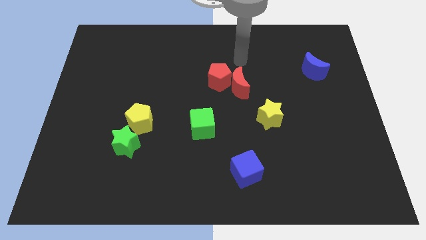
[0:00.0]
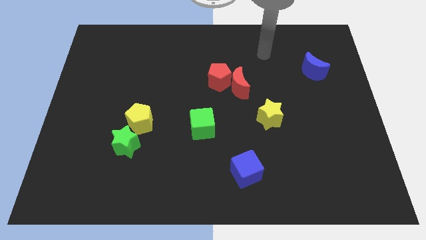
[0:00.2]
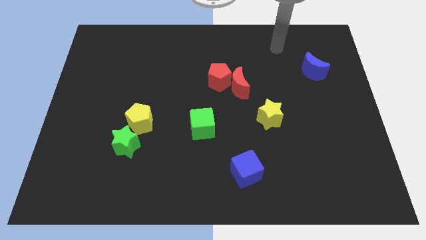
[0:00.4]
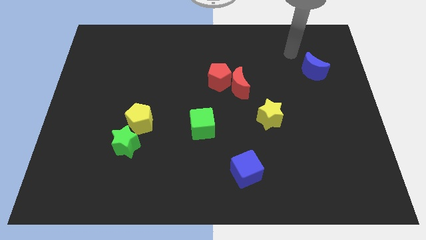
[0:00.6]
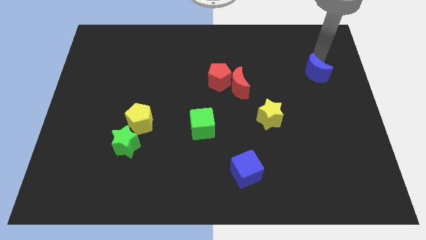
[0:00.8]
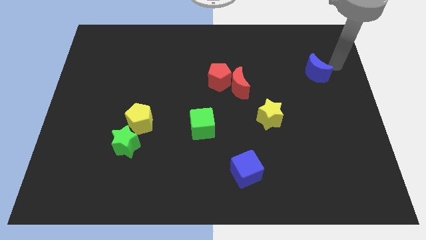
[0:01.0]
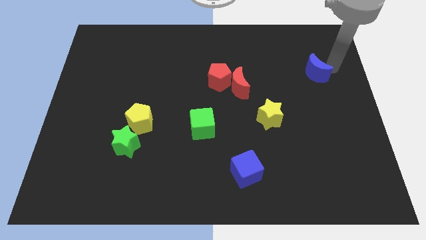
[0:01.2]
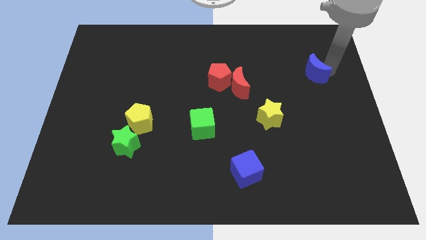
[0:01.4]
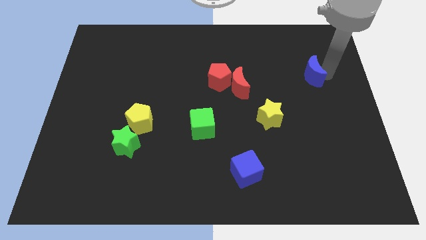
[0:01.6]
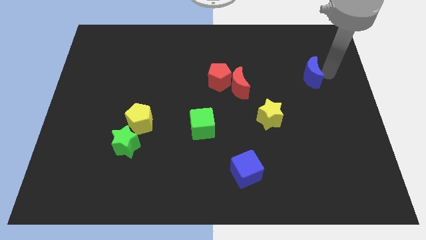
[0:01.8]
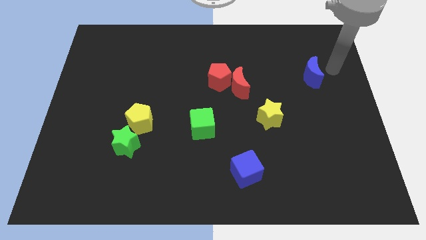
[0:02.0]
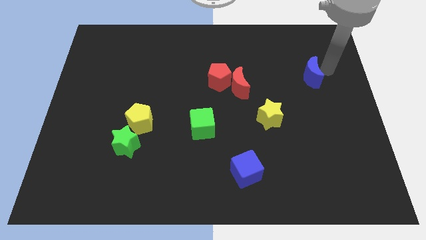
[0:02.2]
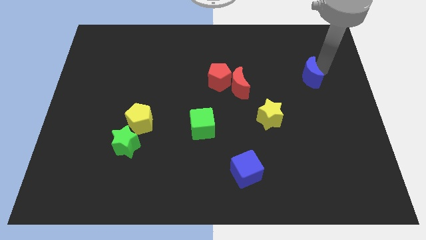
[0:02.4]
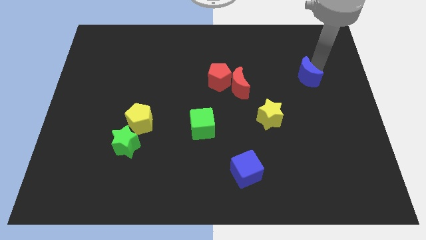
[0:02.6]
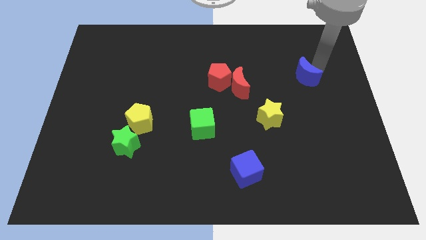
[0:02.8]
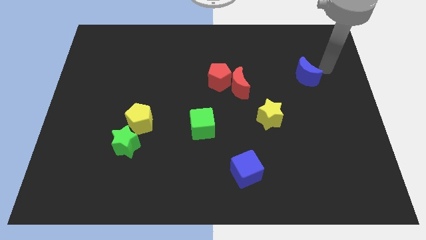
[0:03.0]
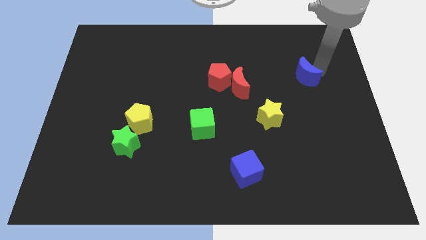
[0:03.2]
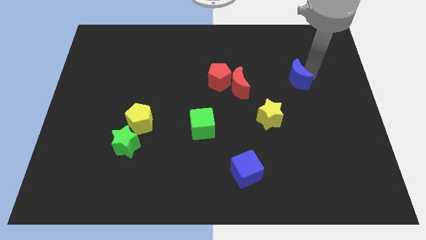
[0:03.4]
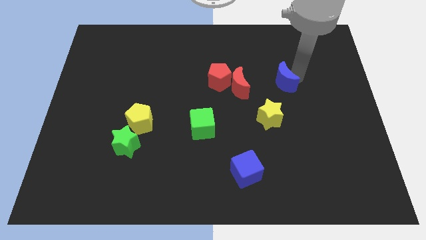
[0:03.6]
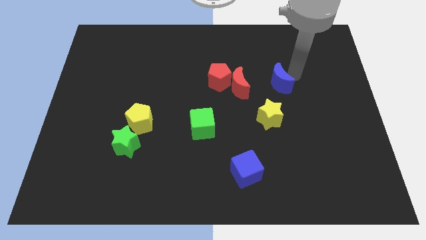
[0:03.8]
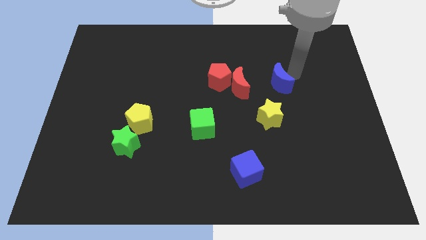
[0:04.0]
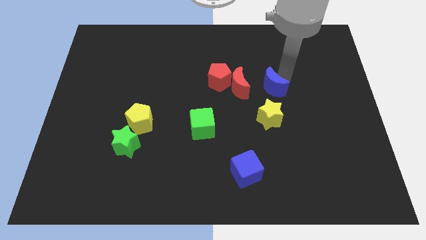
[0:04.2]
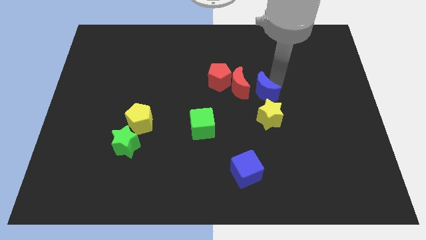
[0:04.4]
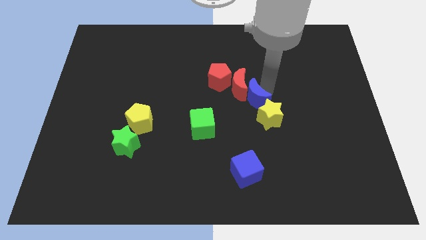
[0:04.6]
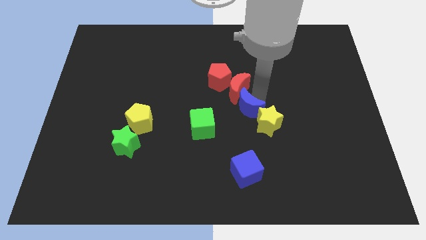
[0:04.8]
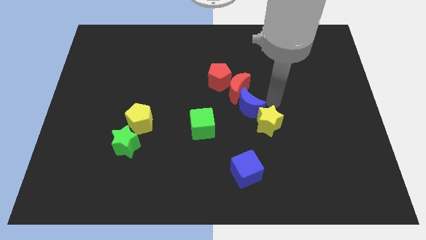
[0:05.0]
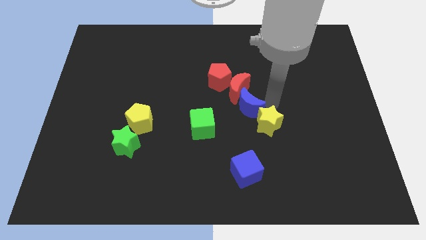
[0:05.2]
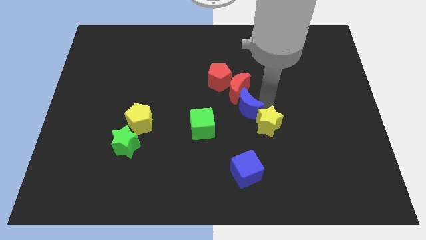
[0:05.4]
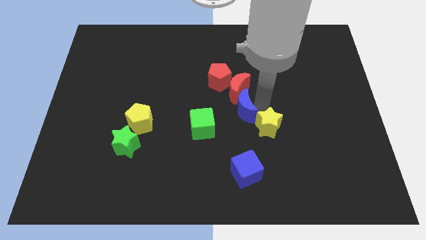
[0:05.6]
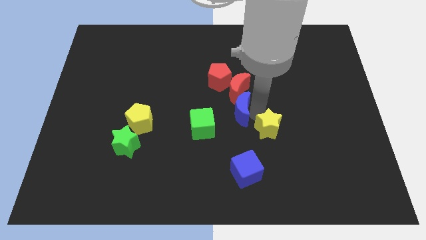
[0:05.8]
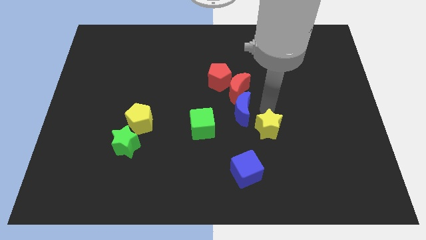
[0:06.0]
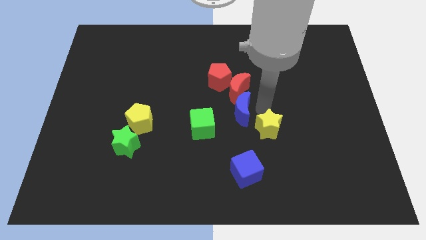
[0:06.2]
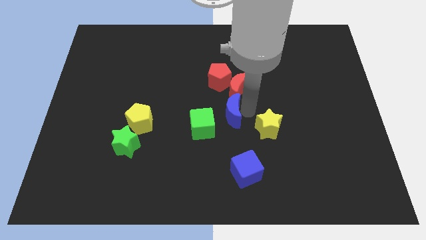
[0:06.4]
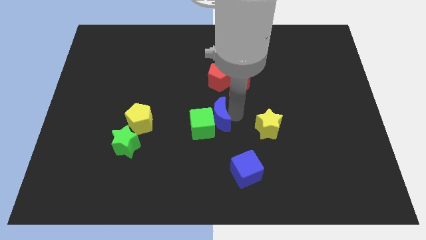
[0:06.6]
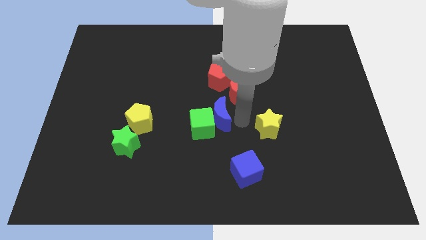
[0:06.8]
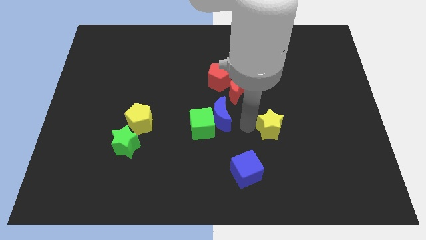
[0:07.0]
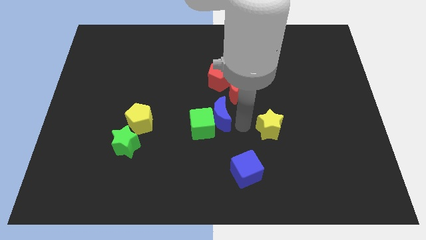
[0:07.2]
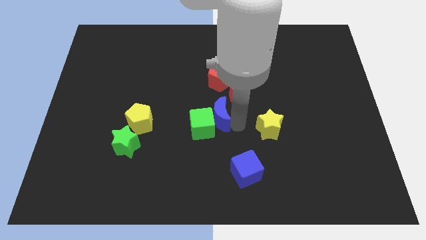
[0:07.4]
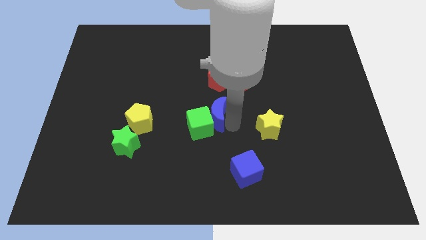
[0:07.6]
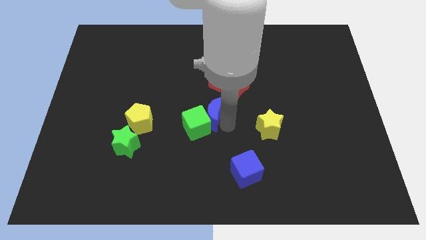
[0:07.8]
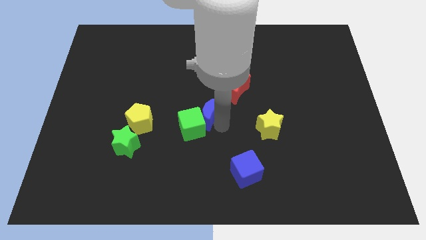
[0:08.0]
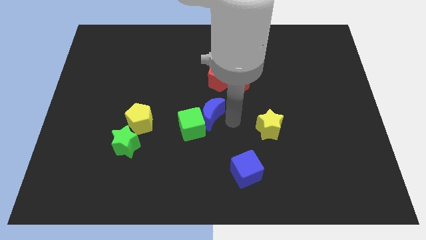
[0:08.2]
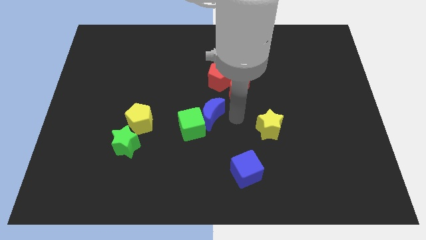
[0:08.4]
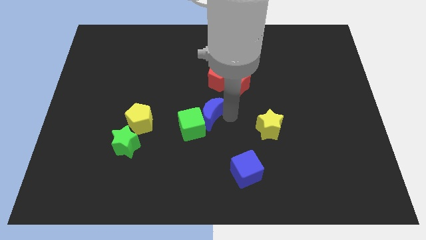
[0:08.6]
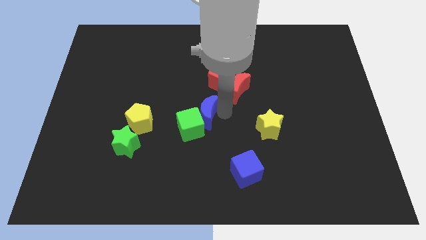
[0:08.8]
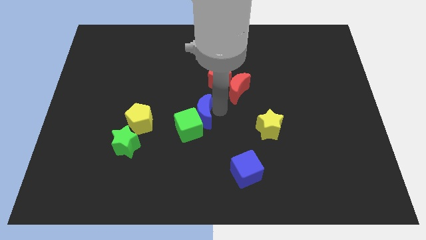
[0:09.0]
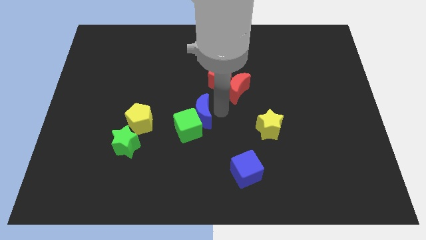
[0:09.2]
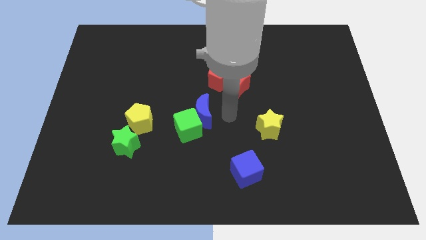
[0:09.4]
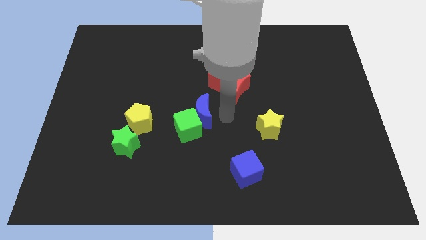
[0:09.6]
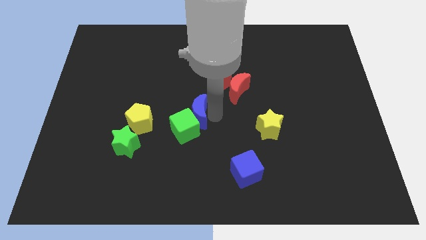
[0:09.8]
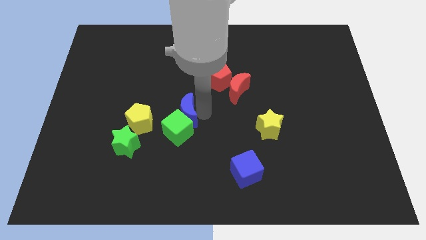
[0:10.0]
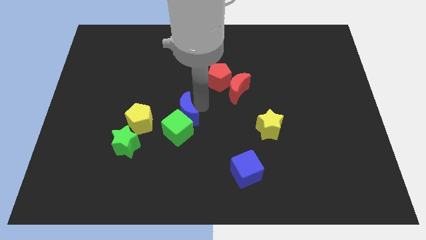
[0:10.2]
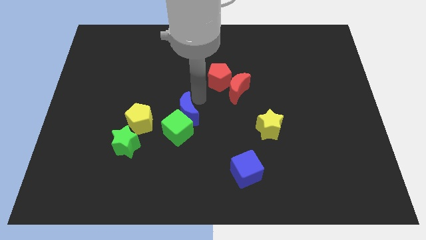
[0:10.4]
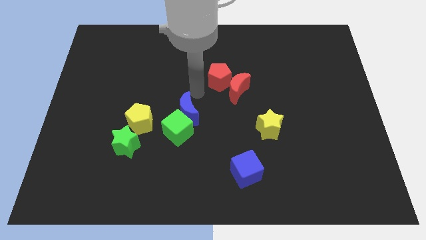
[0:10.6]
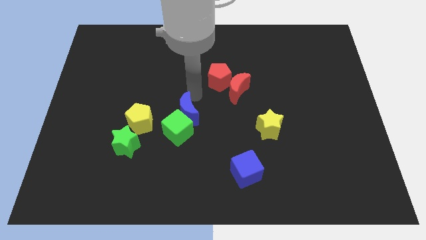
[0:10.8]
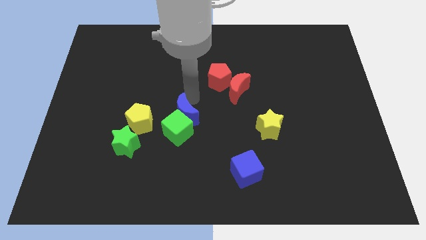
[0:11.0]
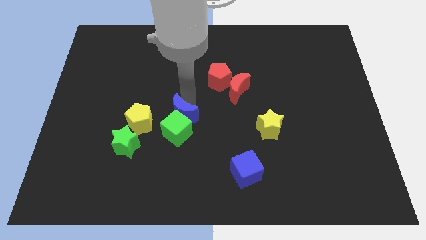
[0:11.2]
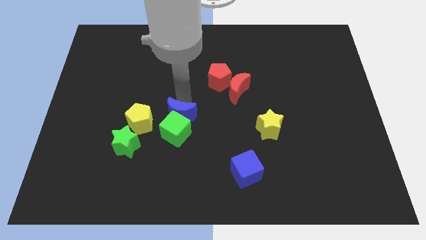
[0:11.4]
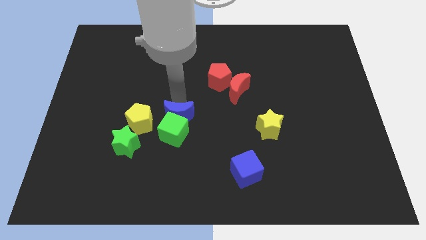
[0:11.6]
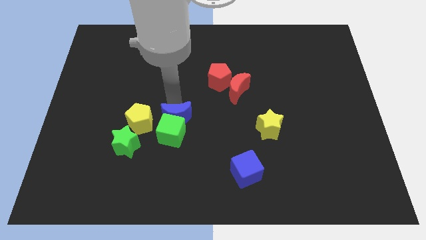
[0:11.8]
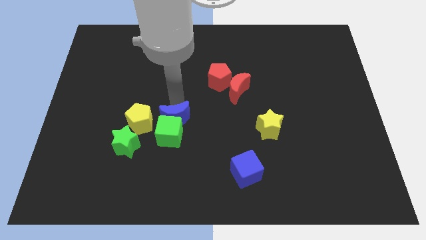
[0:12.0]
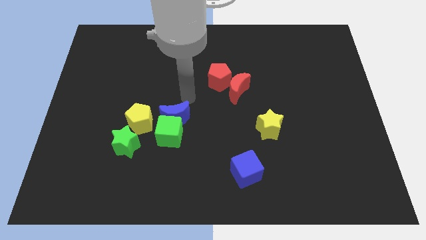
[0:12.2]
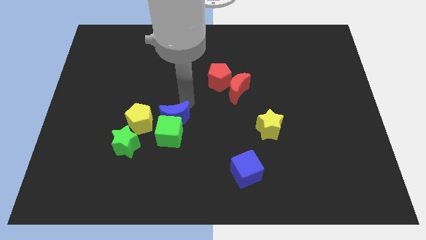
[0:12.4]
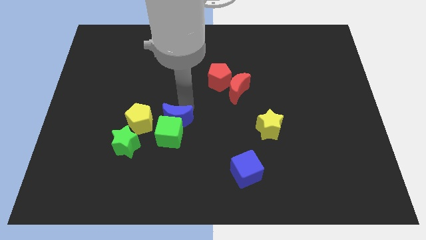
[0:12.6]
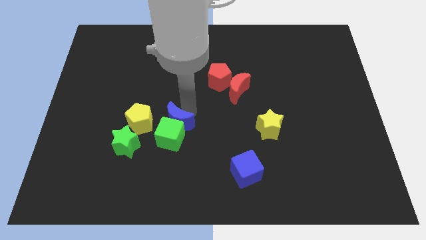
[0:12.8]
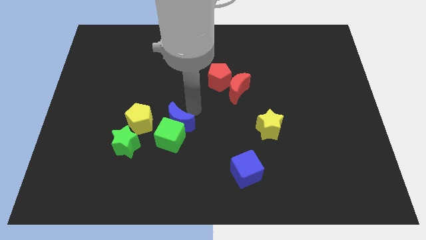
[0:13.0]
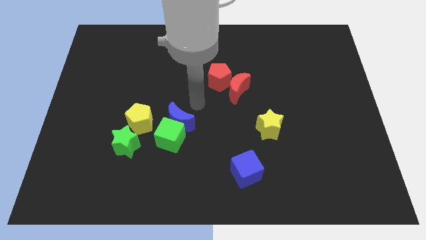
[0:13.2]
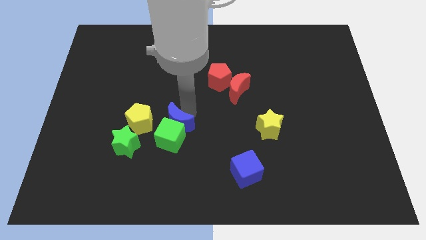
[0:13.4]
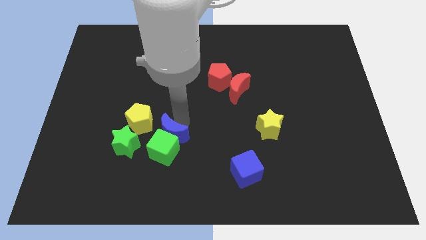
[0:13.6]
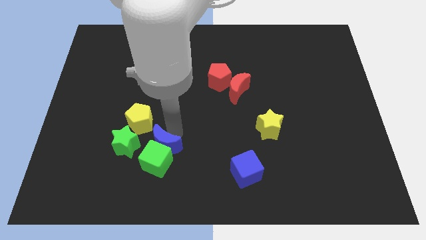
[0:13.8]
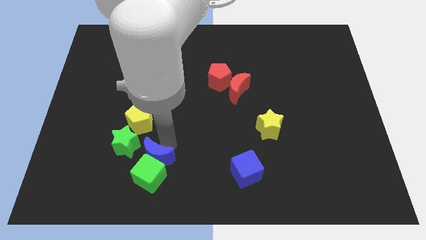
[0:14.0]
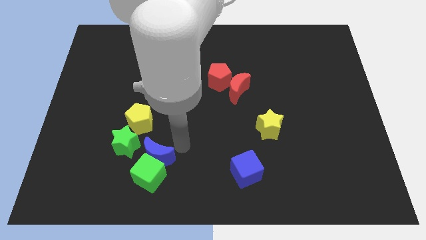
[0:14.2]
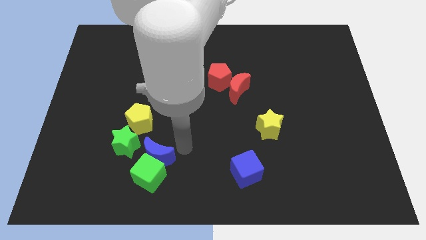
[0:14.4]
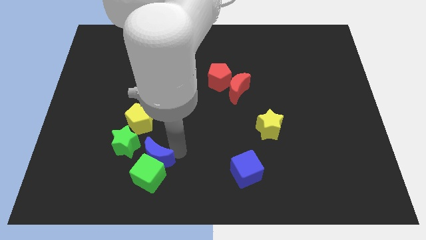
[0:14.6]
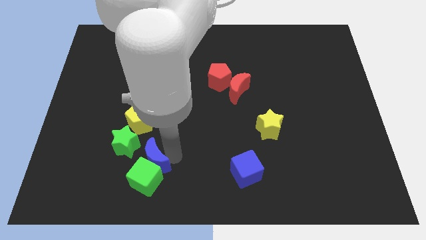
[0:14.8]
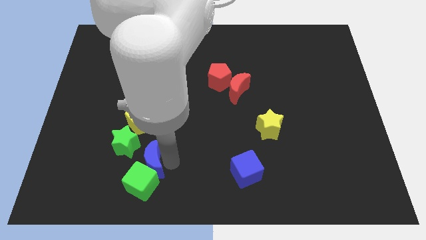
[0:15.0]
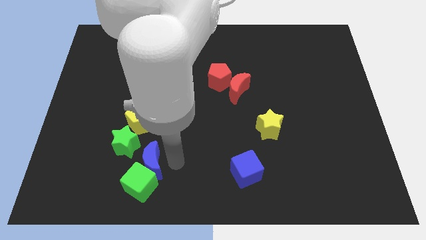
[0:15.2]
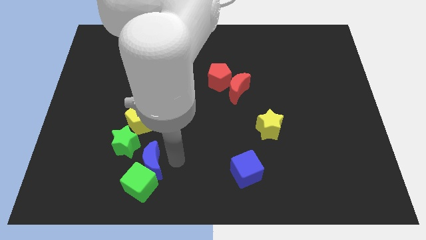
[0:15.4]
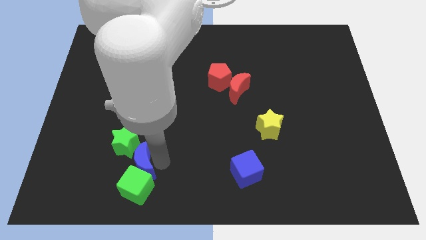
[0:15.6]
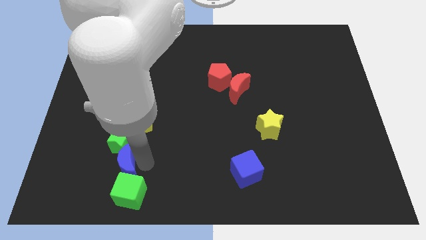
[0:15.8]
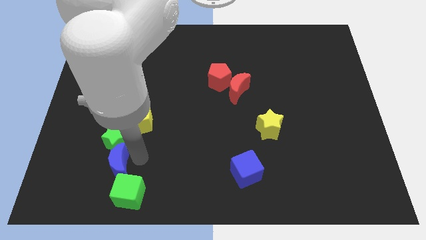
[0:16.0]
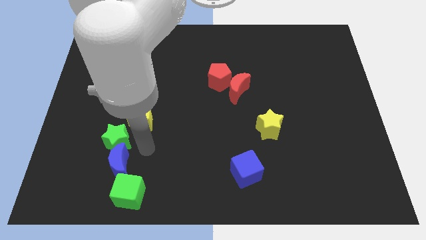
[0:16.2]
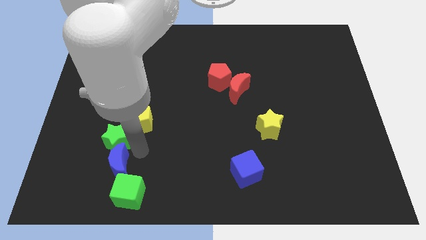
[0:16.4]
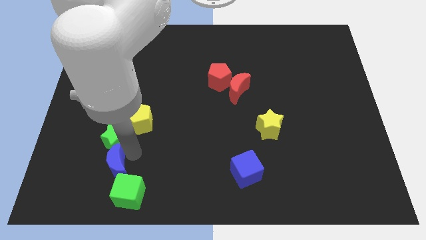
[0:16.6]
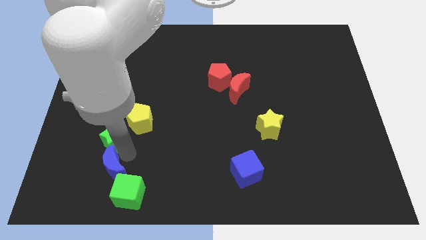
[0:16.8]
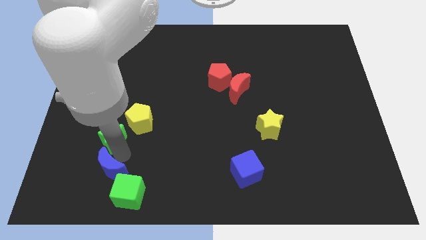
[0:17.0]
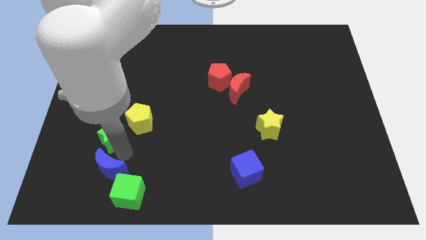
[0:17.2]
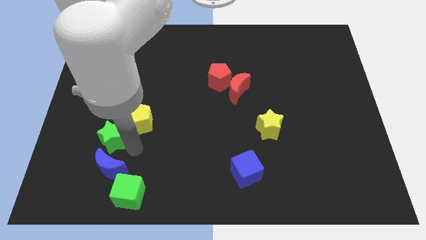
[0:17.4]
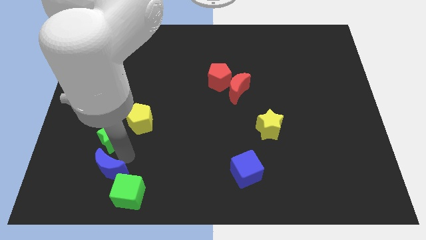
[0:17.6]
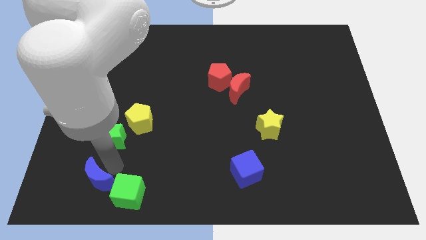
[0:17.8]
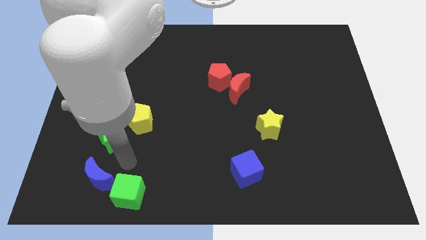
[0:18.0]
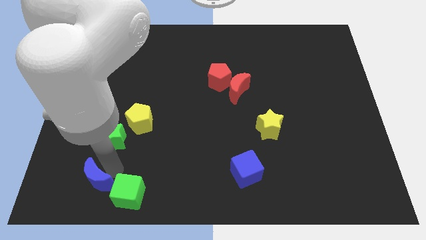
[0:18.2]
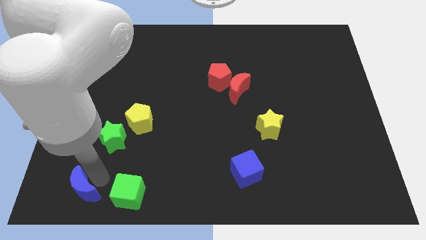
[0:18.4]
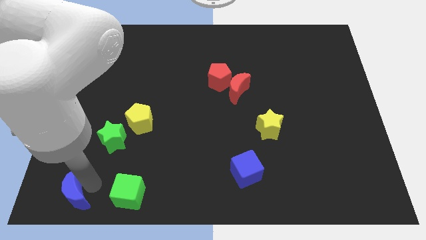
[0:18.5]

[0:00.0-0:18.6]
slide the blue moon to the bottom left
